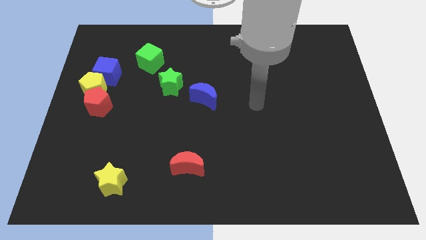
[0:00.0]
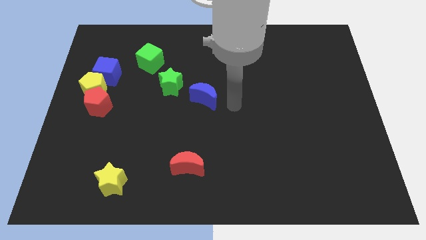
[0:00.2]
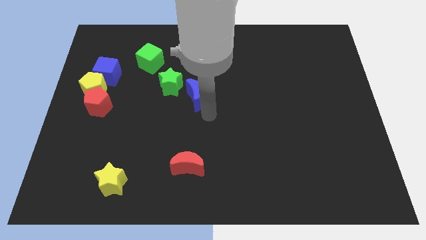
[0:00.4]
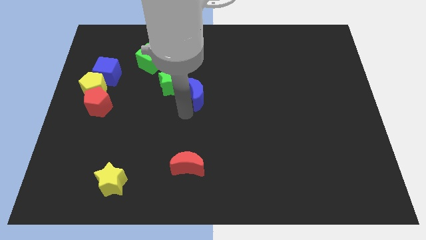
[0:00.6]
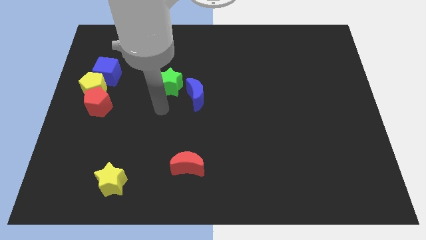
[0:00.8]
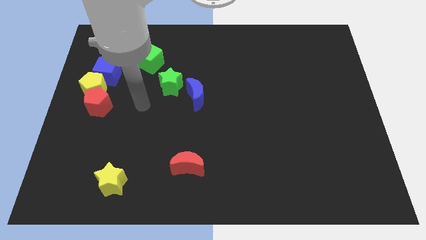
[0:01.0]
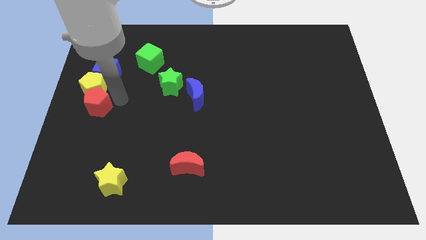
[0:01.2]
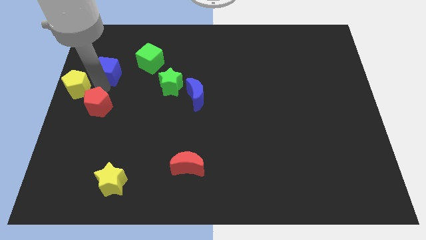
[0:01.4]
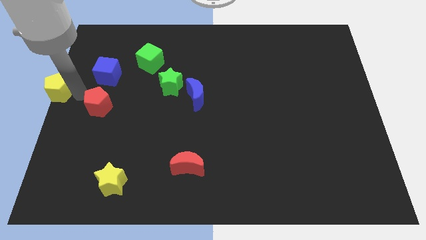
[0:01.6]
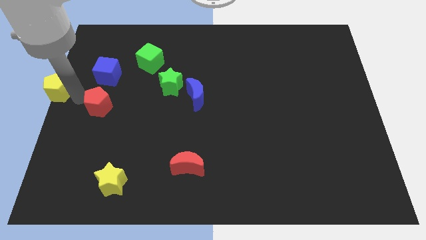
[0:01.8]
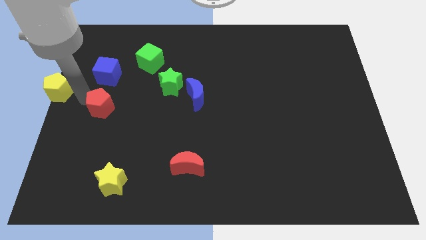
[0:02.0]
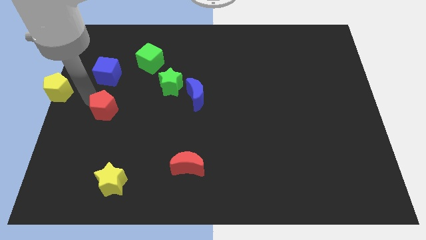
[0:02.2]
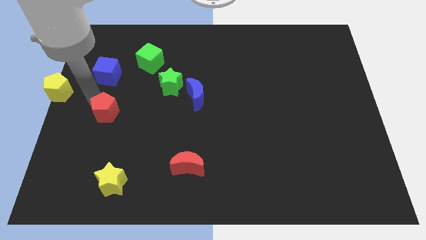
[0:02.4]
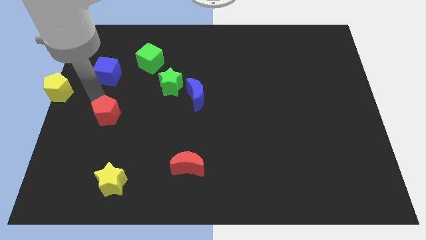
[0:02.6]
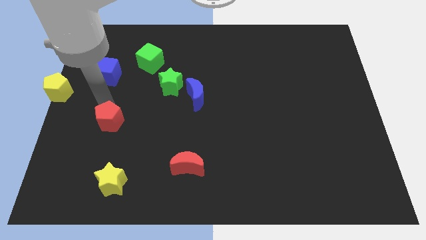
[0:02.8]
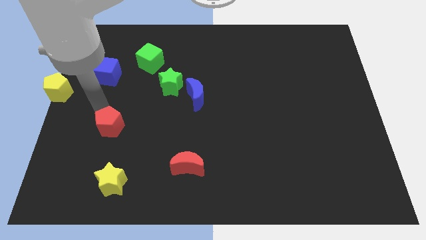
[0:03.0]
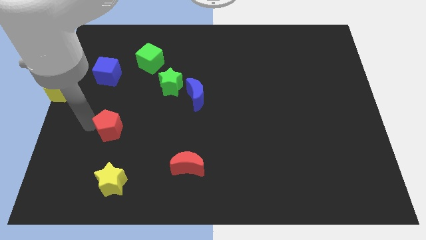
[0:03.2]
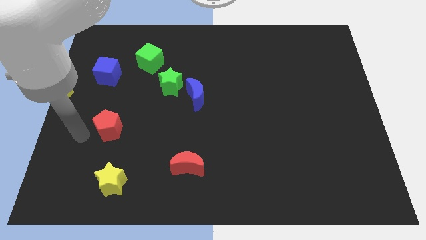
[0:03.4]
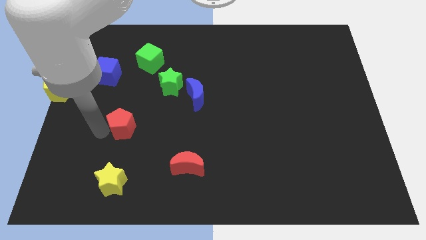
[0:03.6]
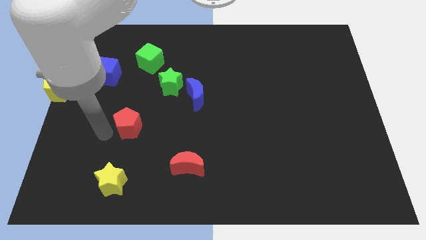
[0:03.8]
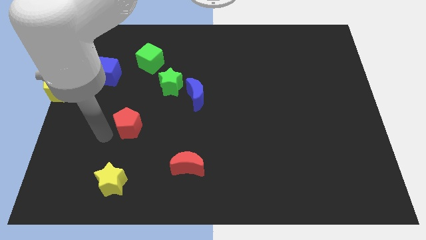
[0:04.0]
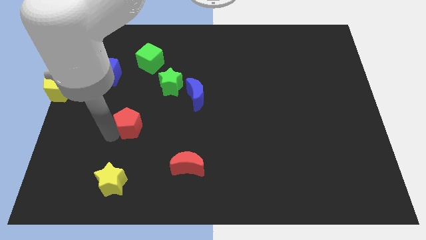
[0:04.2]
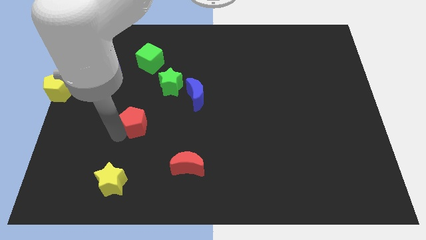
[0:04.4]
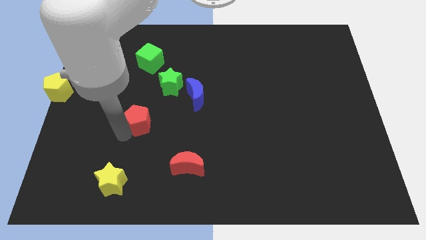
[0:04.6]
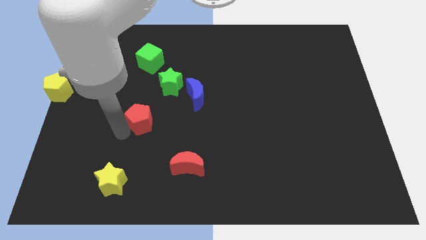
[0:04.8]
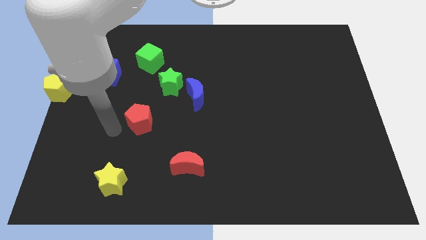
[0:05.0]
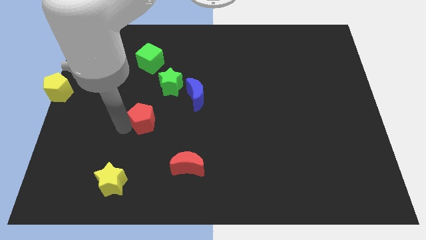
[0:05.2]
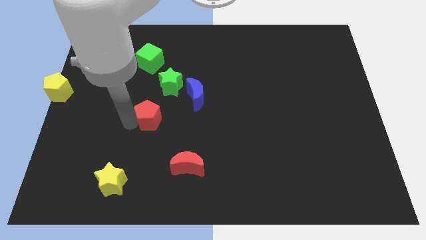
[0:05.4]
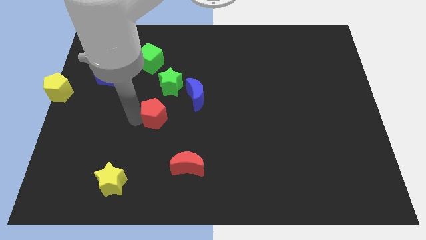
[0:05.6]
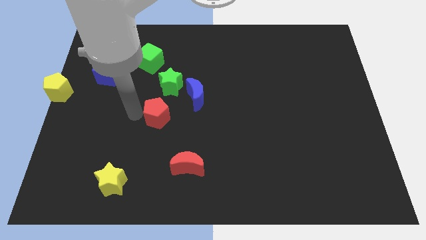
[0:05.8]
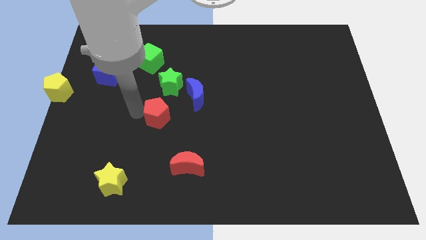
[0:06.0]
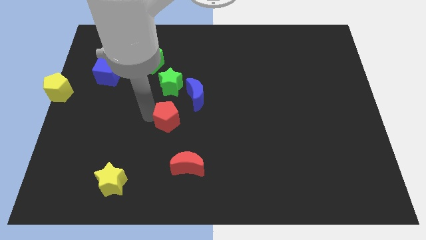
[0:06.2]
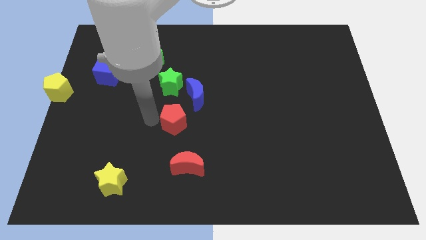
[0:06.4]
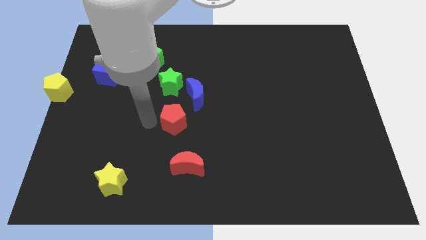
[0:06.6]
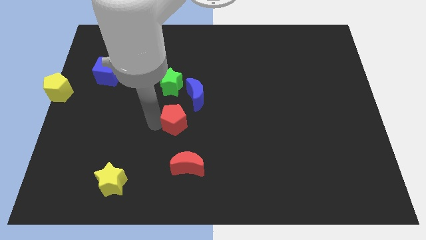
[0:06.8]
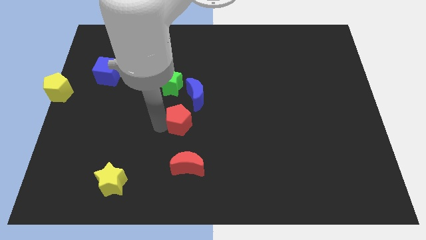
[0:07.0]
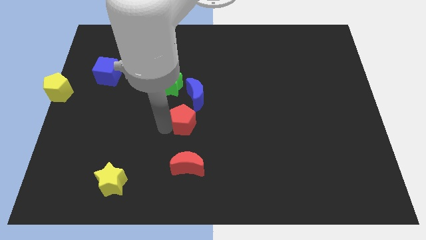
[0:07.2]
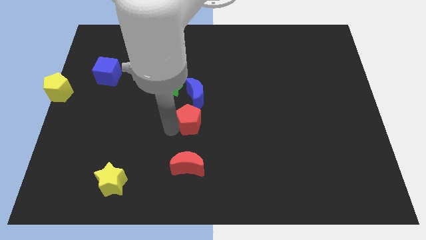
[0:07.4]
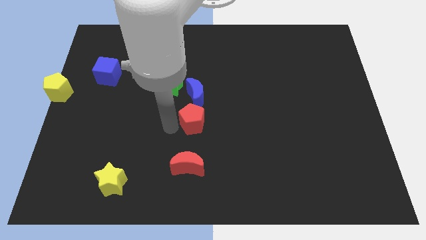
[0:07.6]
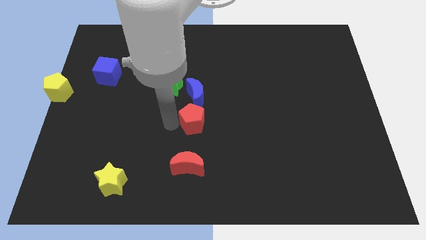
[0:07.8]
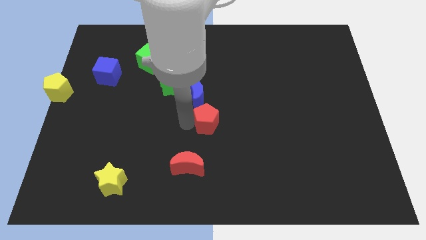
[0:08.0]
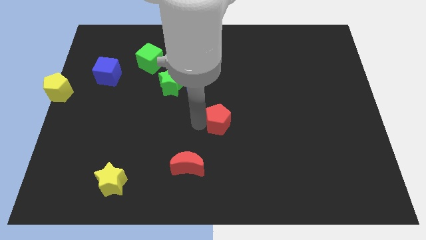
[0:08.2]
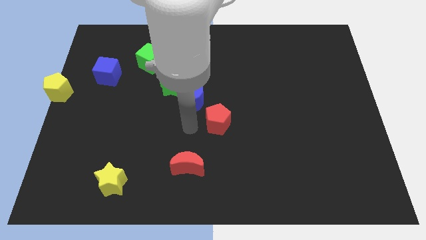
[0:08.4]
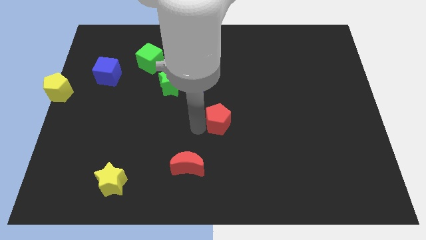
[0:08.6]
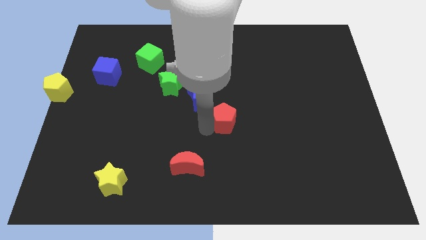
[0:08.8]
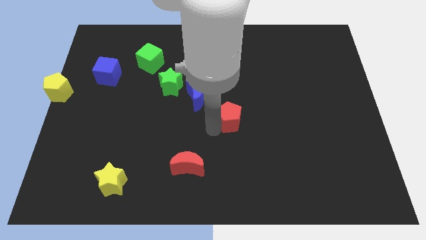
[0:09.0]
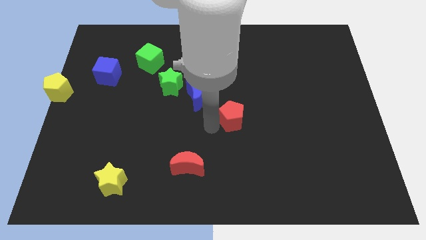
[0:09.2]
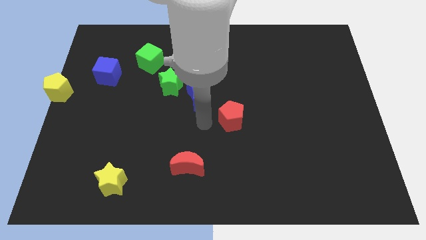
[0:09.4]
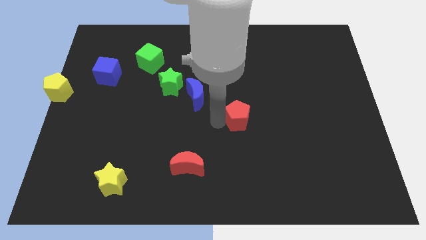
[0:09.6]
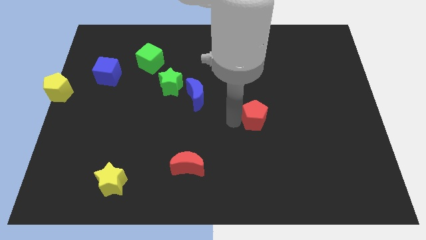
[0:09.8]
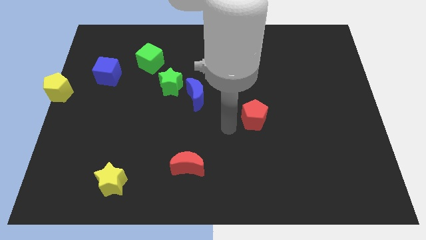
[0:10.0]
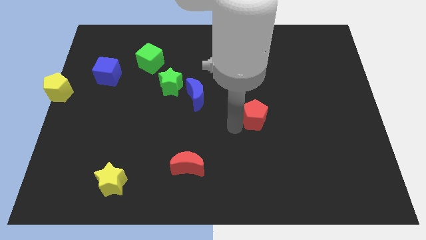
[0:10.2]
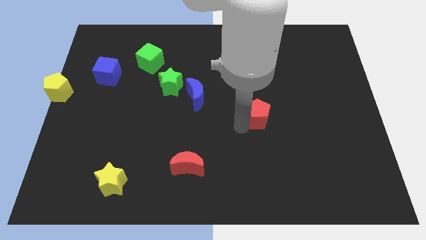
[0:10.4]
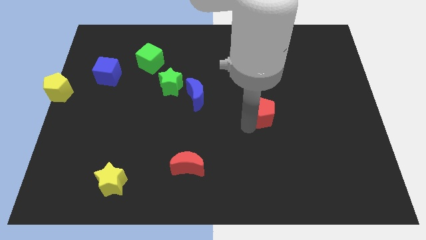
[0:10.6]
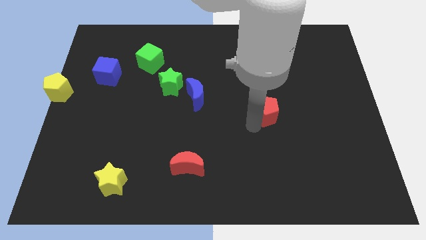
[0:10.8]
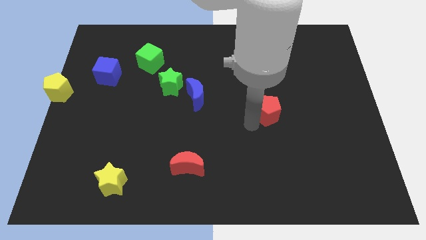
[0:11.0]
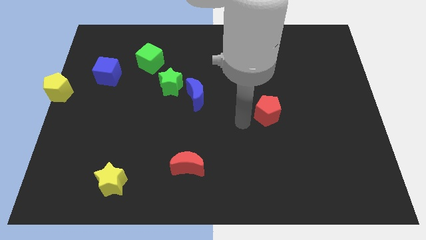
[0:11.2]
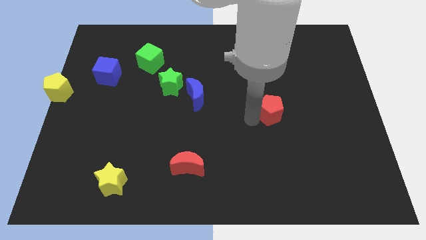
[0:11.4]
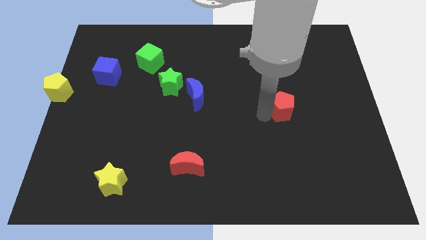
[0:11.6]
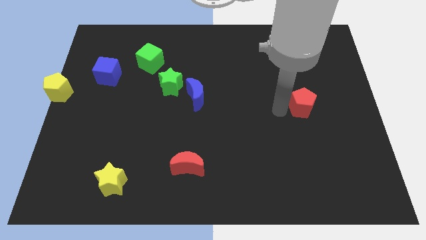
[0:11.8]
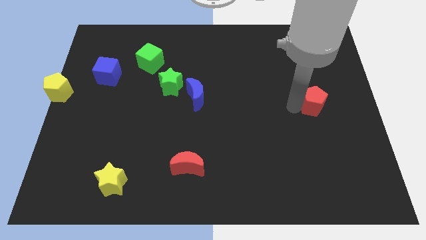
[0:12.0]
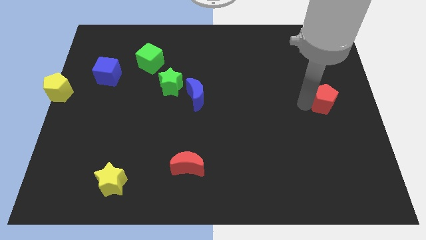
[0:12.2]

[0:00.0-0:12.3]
push the red pentagon to the center right
